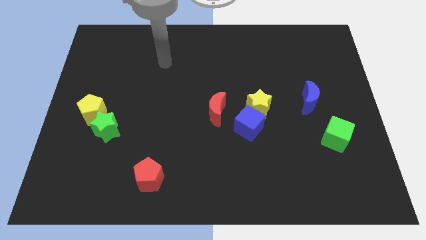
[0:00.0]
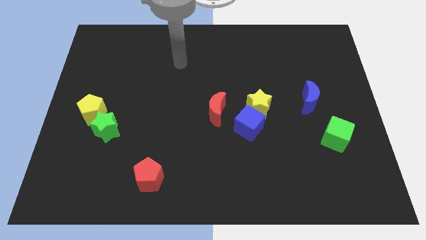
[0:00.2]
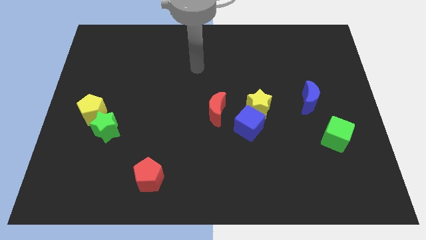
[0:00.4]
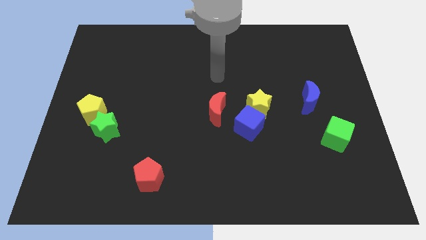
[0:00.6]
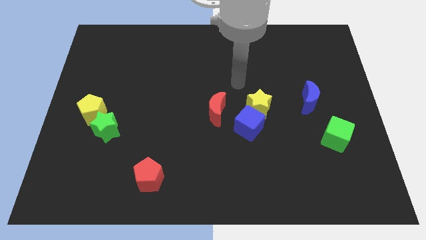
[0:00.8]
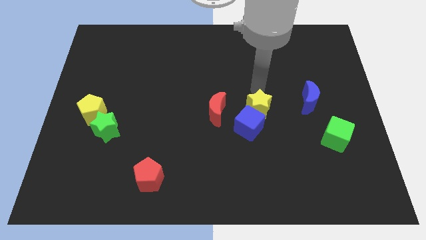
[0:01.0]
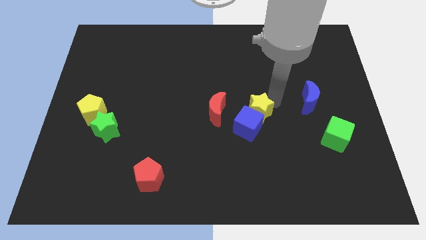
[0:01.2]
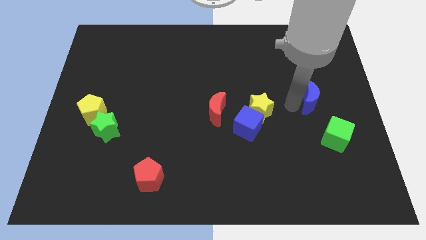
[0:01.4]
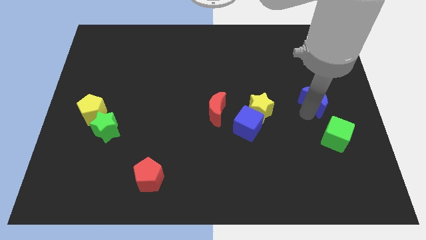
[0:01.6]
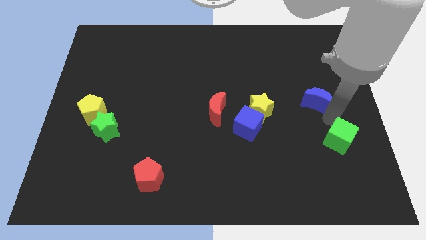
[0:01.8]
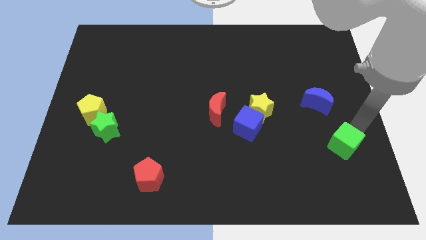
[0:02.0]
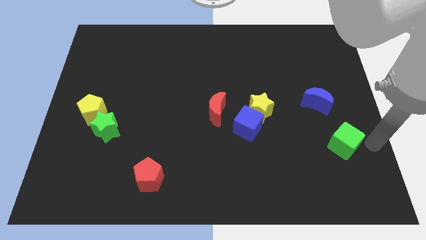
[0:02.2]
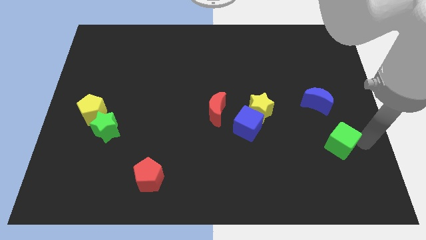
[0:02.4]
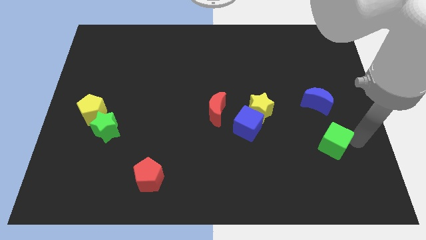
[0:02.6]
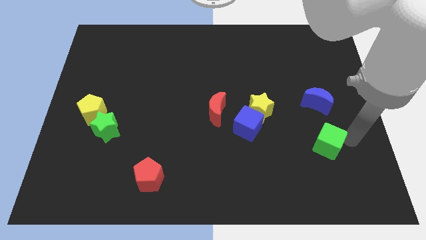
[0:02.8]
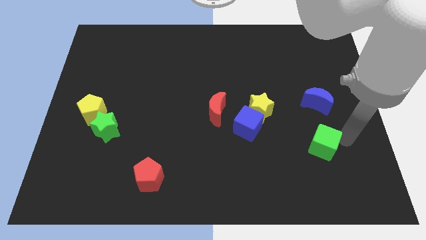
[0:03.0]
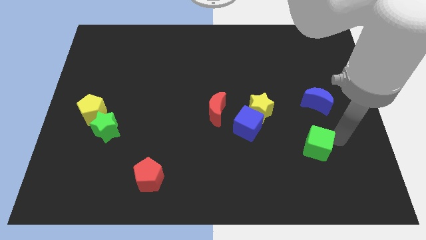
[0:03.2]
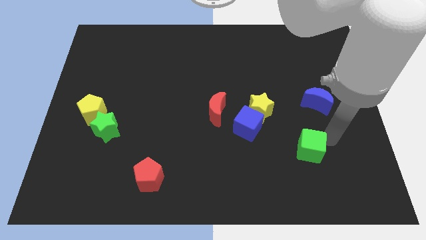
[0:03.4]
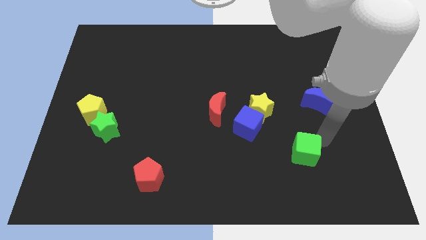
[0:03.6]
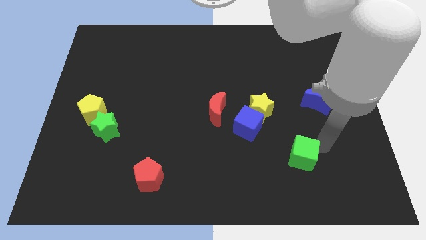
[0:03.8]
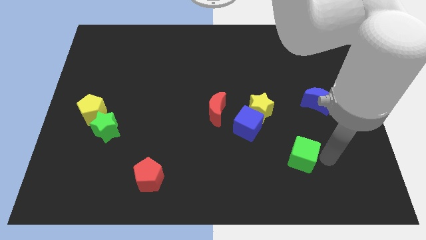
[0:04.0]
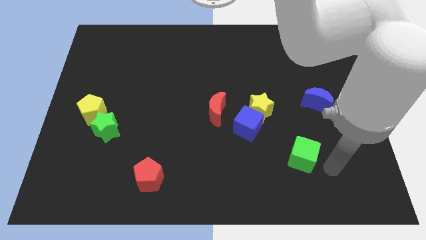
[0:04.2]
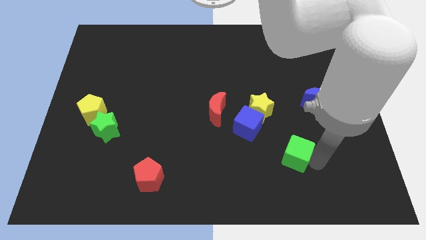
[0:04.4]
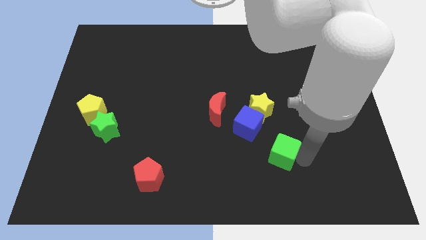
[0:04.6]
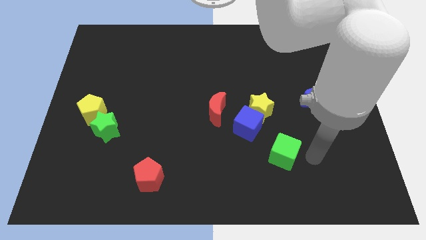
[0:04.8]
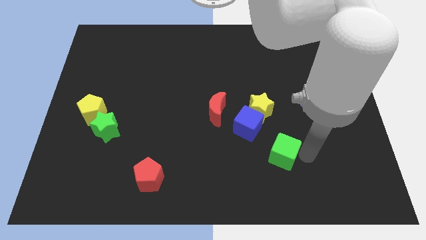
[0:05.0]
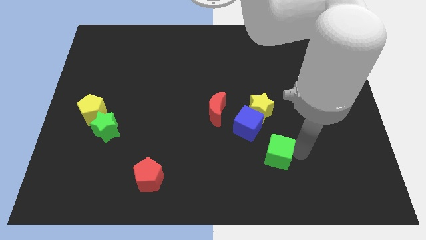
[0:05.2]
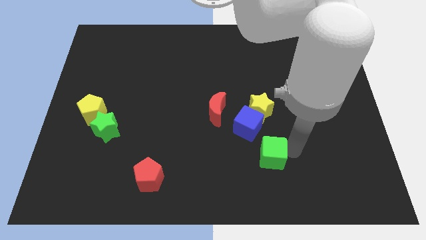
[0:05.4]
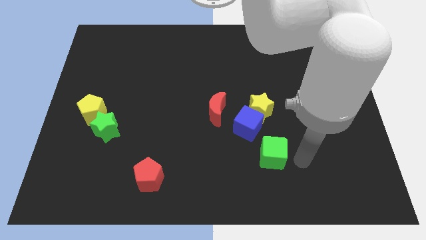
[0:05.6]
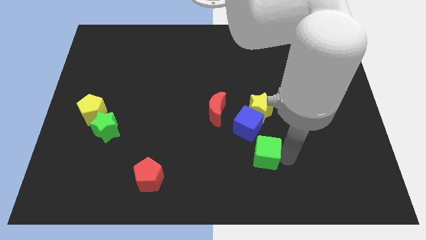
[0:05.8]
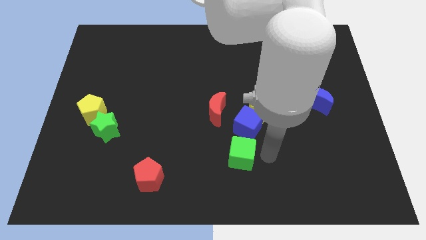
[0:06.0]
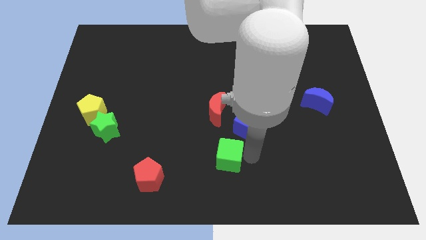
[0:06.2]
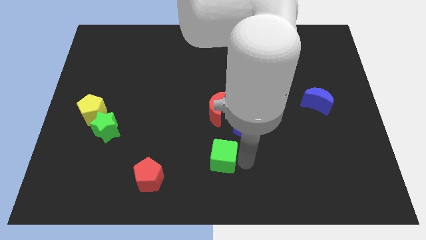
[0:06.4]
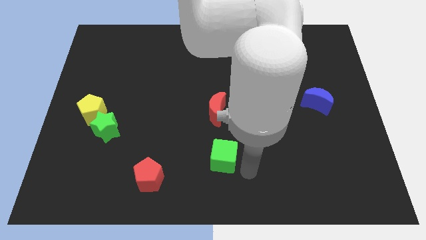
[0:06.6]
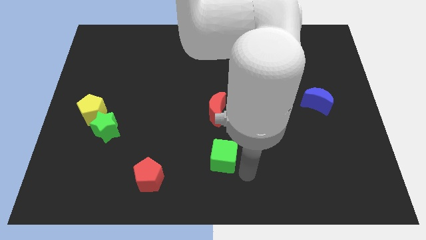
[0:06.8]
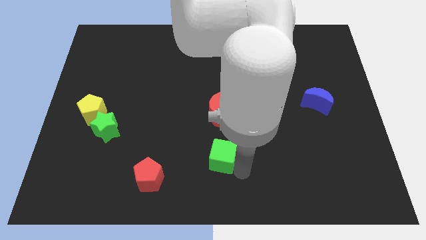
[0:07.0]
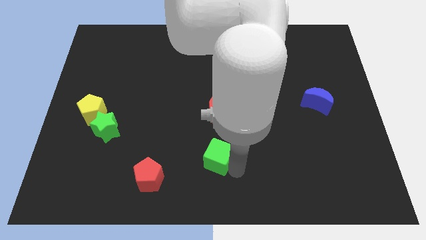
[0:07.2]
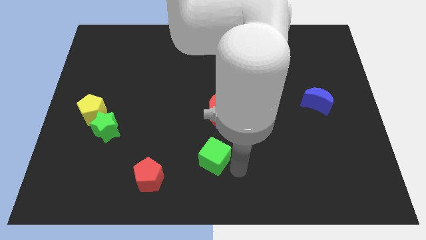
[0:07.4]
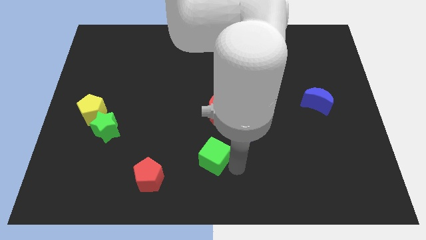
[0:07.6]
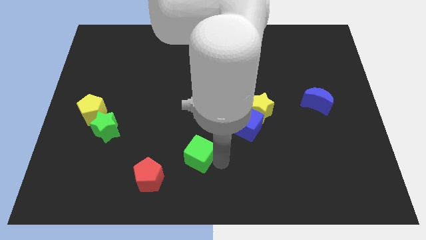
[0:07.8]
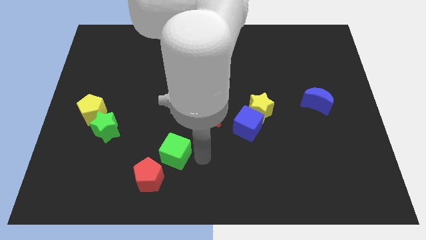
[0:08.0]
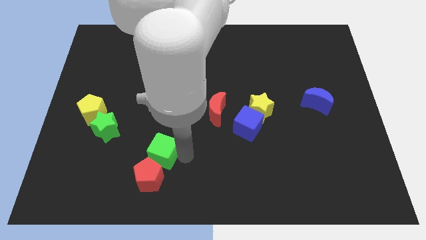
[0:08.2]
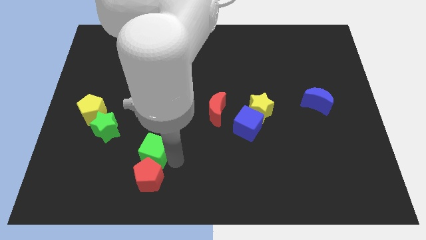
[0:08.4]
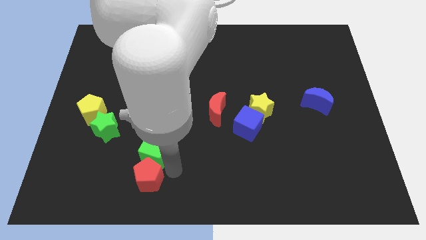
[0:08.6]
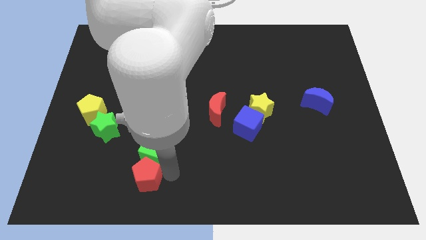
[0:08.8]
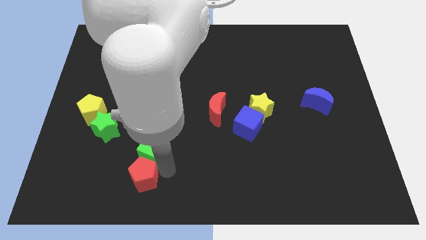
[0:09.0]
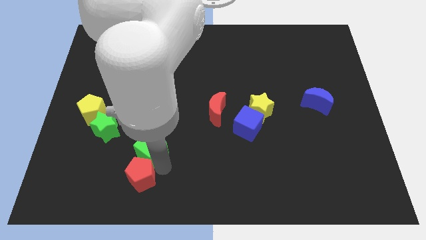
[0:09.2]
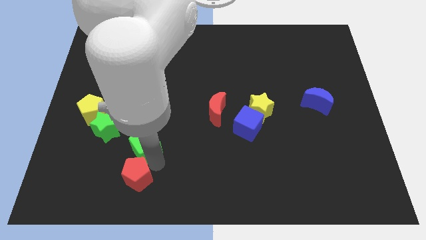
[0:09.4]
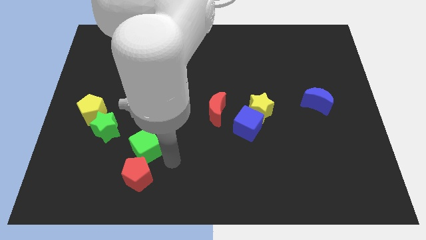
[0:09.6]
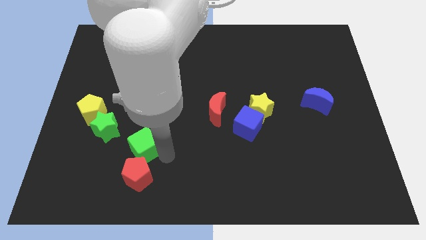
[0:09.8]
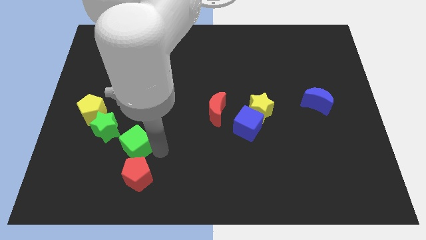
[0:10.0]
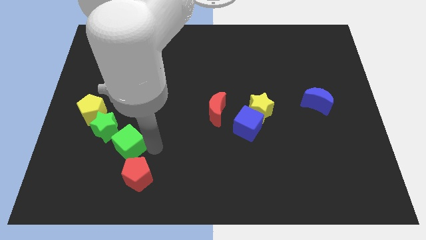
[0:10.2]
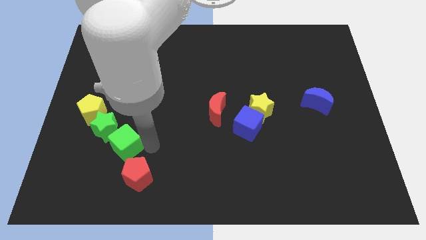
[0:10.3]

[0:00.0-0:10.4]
push the green cube diagonally down and to the right of the yellow pentagon

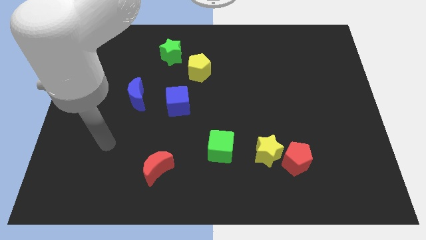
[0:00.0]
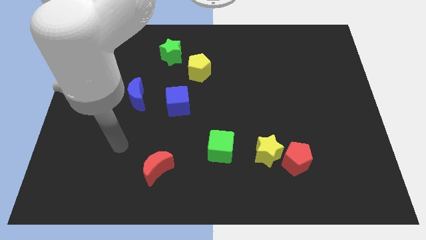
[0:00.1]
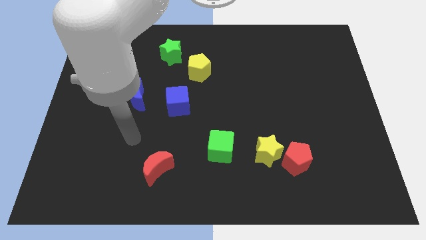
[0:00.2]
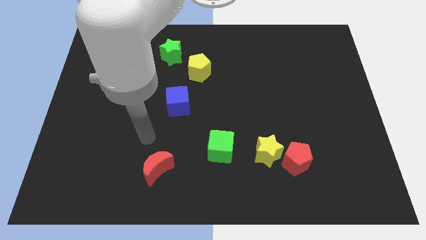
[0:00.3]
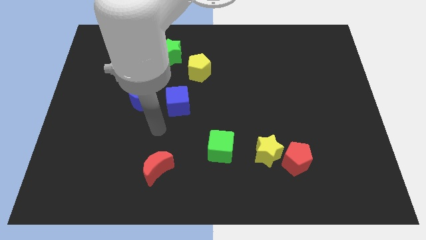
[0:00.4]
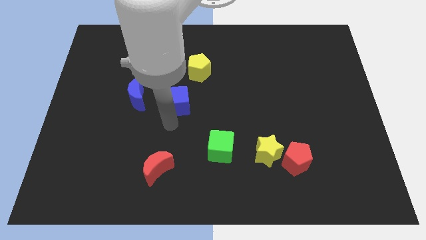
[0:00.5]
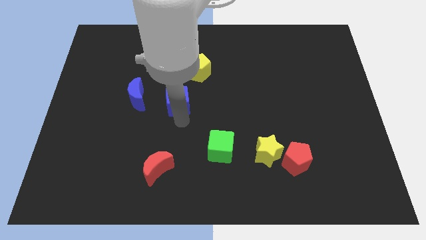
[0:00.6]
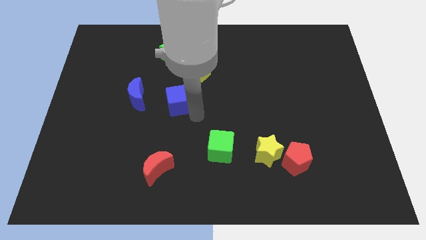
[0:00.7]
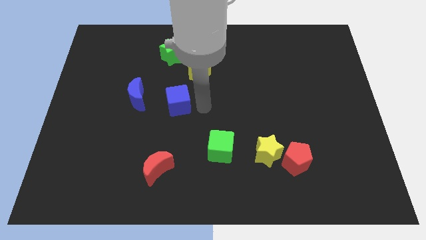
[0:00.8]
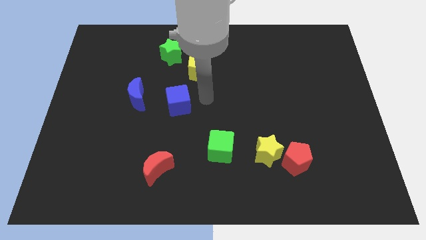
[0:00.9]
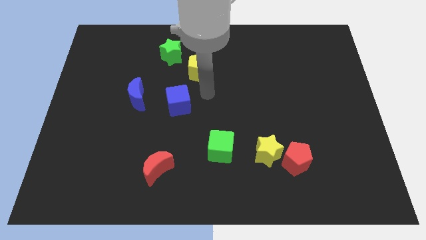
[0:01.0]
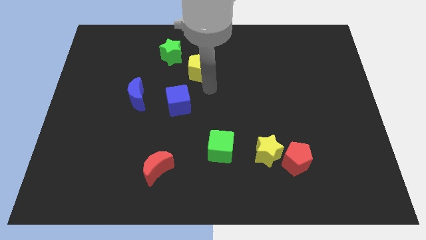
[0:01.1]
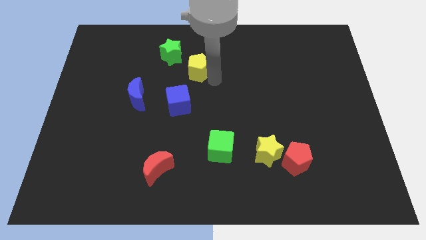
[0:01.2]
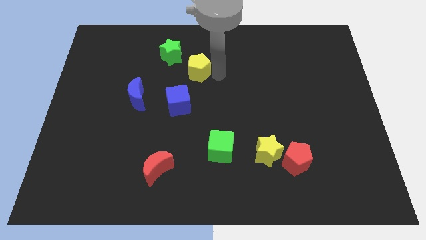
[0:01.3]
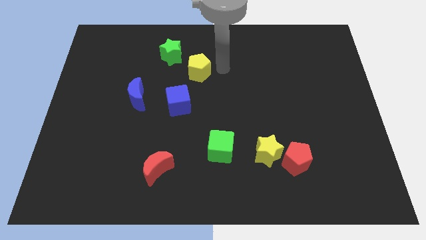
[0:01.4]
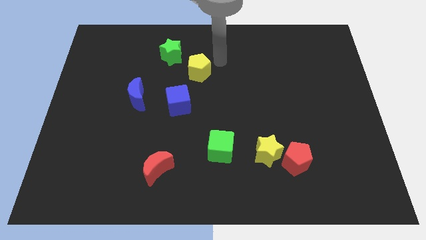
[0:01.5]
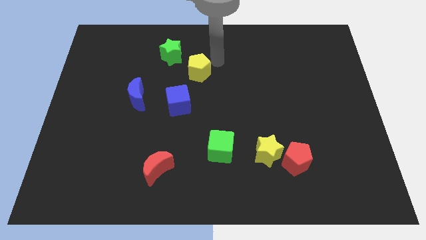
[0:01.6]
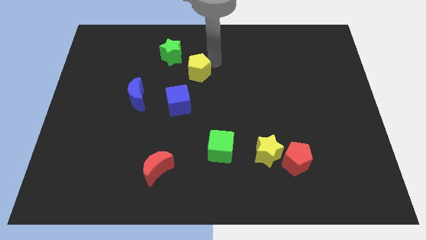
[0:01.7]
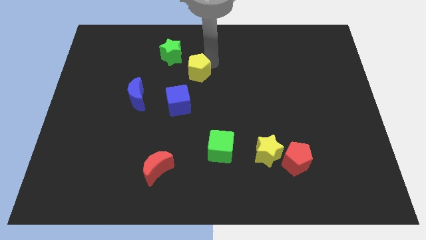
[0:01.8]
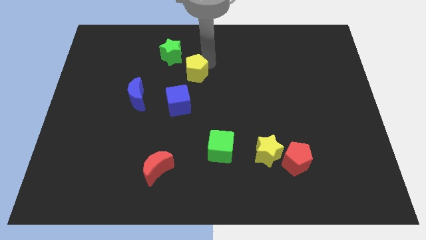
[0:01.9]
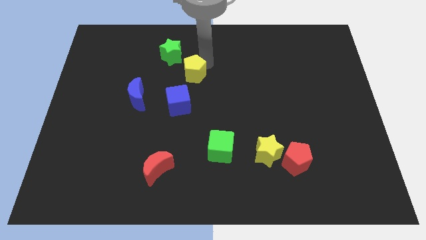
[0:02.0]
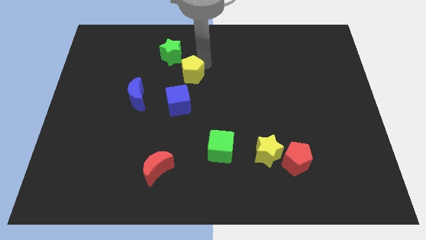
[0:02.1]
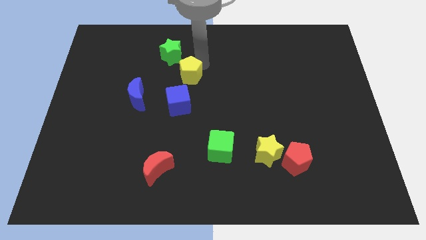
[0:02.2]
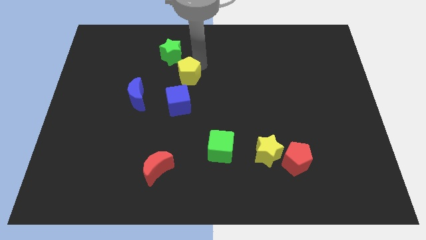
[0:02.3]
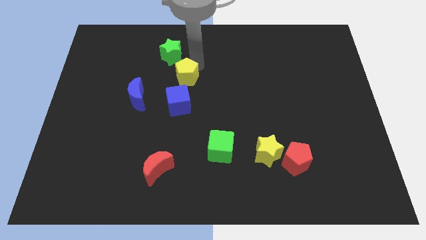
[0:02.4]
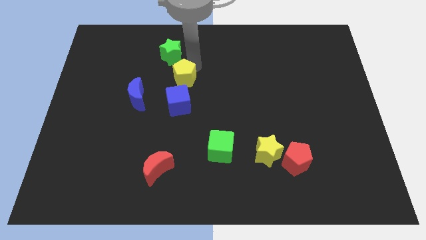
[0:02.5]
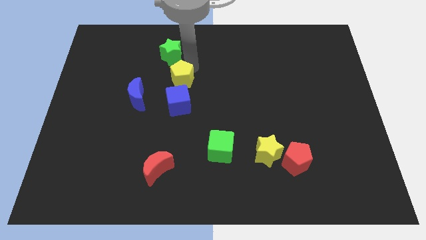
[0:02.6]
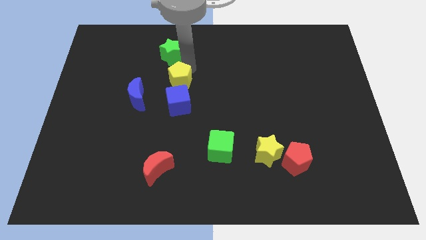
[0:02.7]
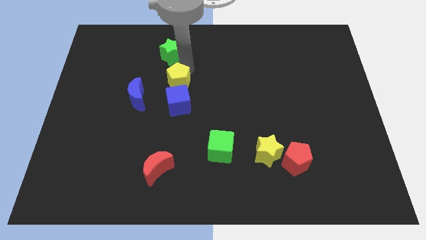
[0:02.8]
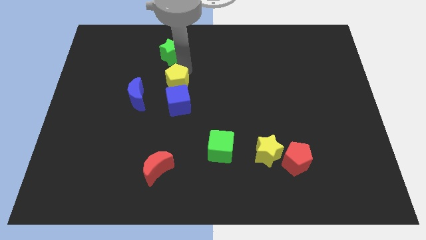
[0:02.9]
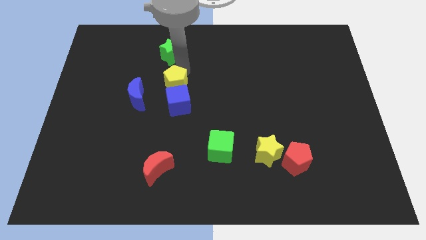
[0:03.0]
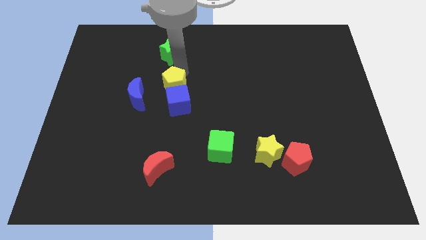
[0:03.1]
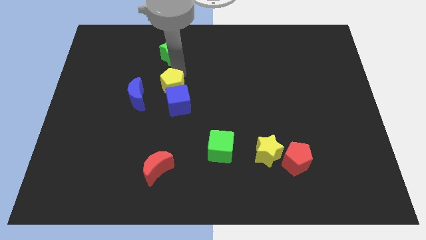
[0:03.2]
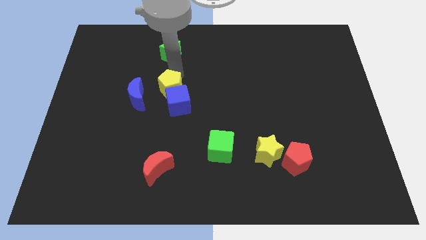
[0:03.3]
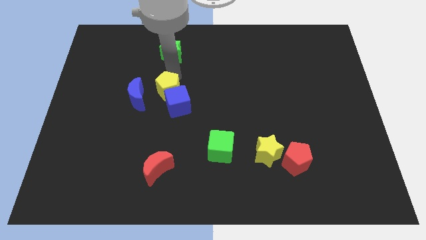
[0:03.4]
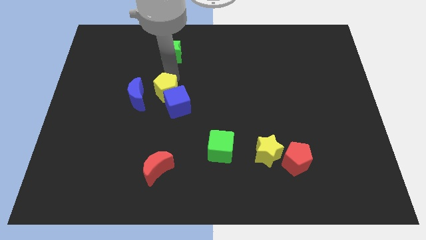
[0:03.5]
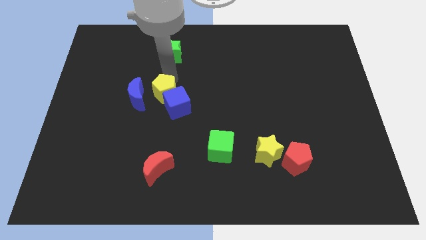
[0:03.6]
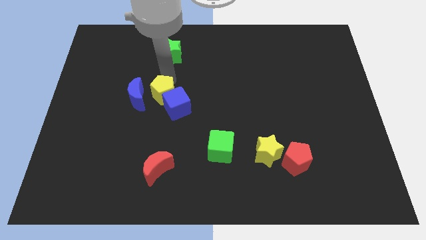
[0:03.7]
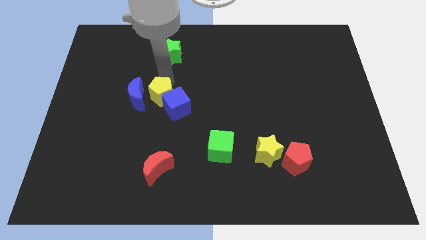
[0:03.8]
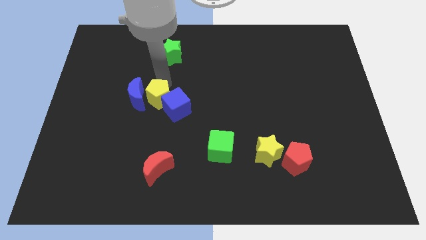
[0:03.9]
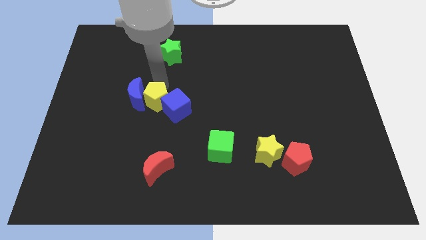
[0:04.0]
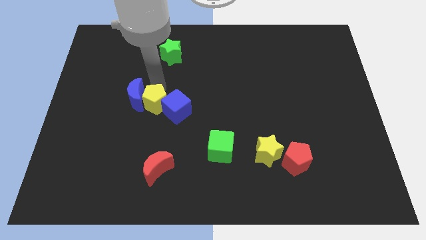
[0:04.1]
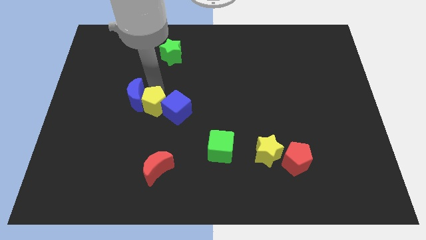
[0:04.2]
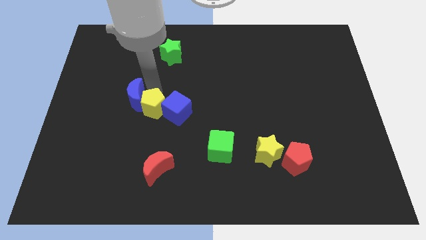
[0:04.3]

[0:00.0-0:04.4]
push the yellow pentagon to the bottom left side of the blue cube
